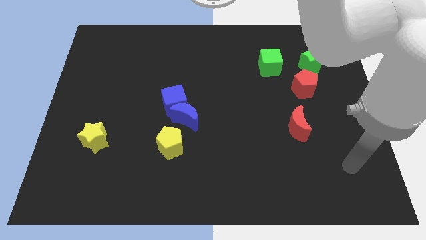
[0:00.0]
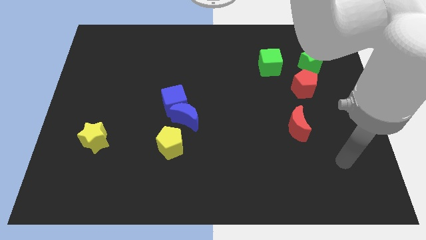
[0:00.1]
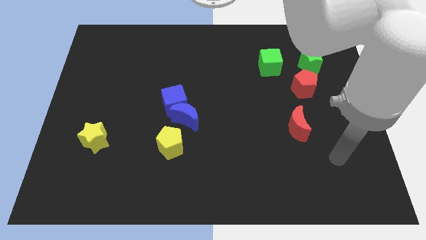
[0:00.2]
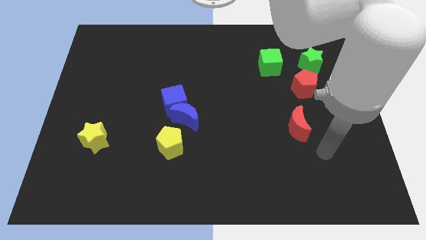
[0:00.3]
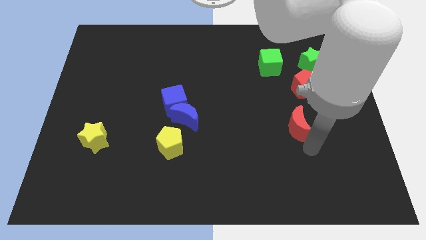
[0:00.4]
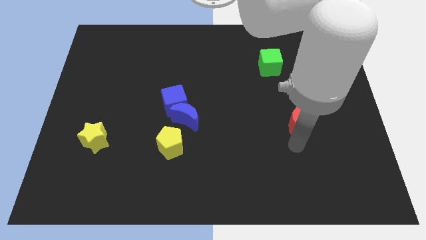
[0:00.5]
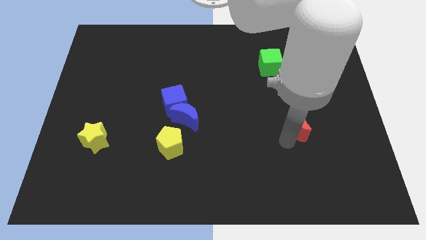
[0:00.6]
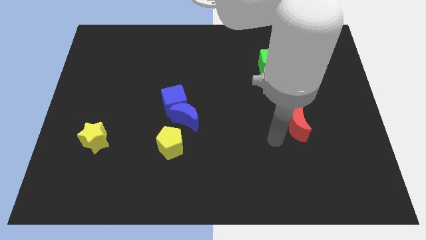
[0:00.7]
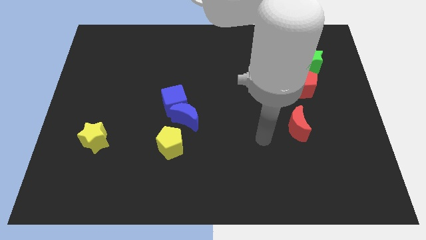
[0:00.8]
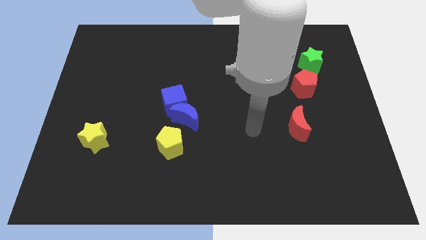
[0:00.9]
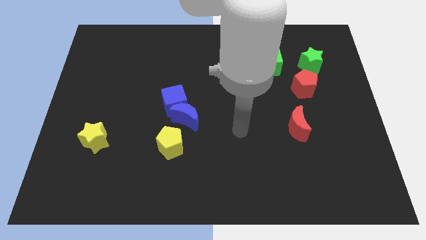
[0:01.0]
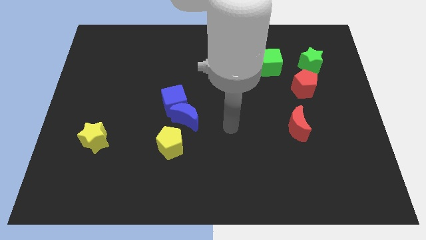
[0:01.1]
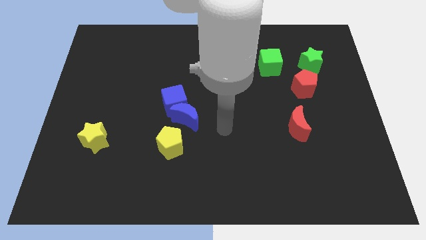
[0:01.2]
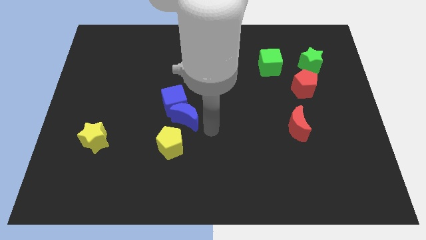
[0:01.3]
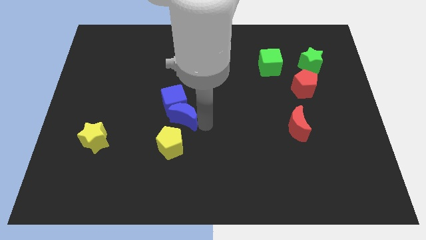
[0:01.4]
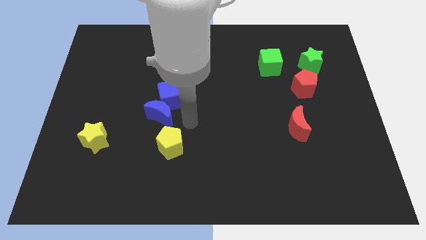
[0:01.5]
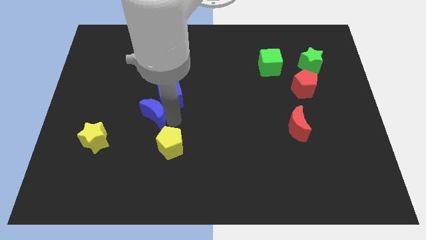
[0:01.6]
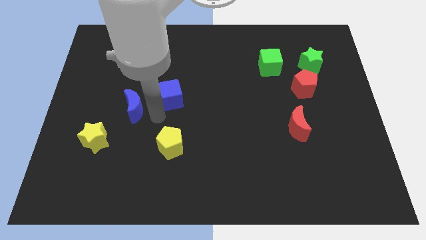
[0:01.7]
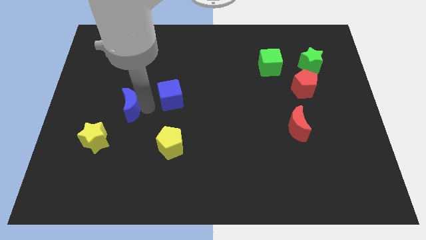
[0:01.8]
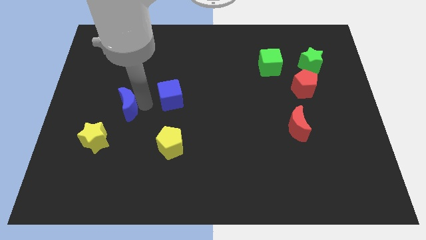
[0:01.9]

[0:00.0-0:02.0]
separate the blue cube from the blue moon

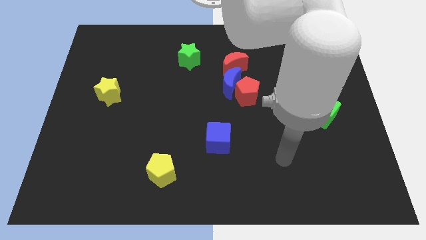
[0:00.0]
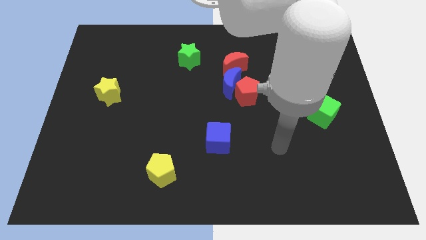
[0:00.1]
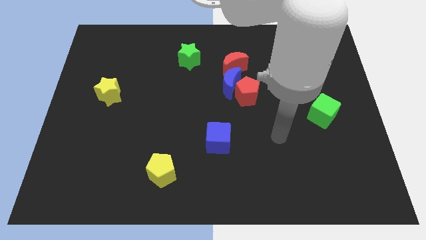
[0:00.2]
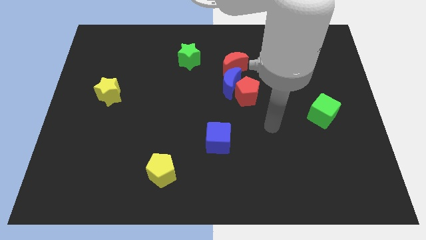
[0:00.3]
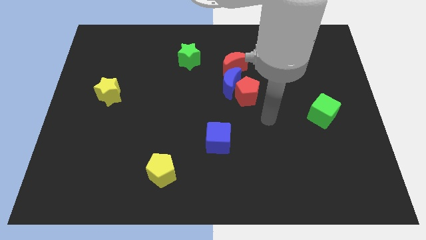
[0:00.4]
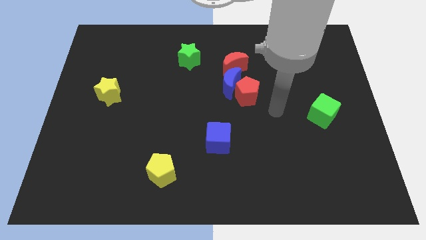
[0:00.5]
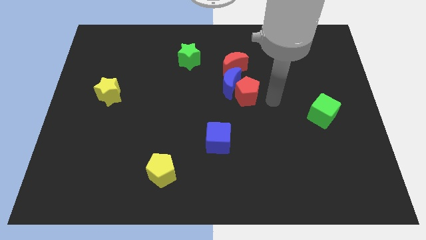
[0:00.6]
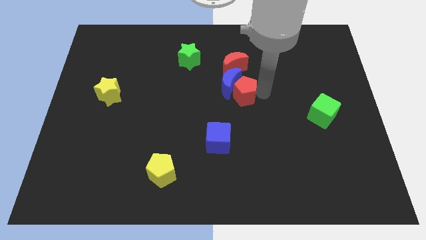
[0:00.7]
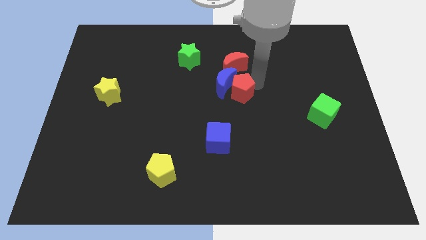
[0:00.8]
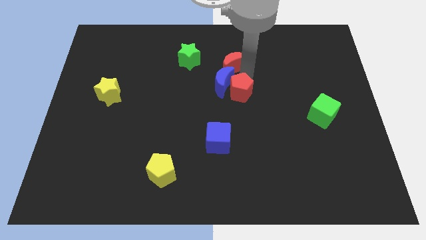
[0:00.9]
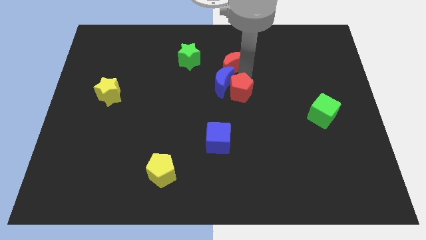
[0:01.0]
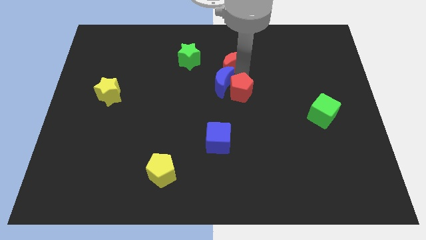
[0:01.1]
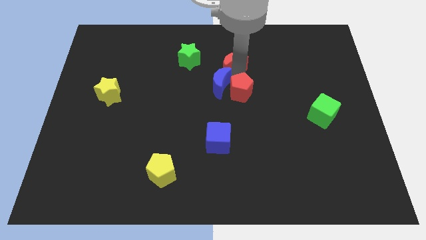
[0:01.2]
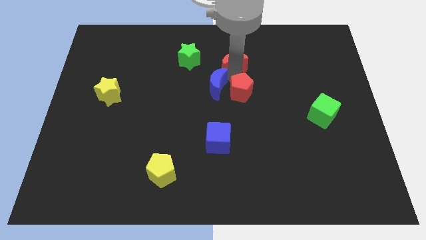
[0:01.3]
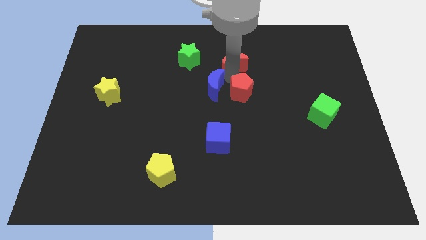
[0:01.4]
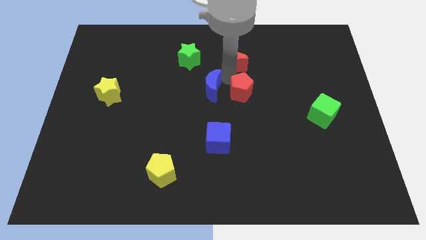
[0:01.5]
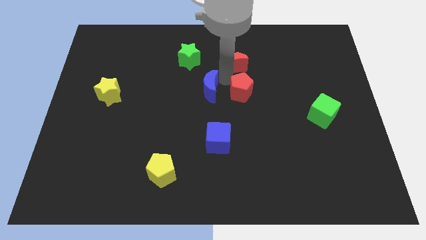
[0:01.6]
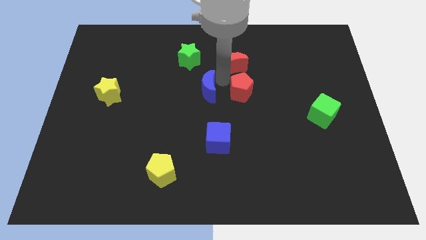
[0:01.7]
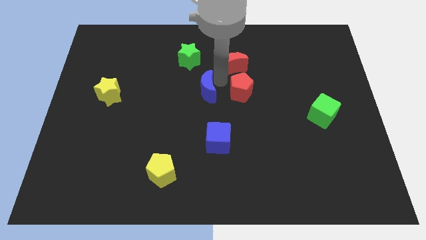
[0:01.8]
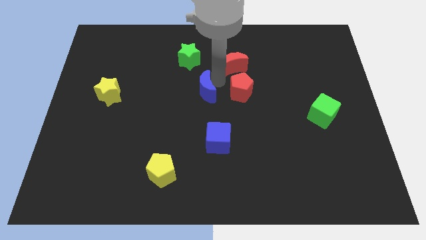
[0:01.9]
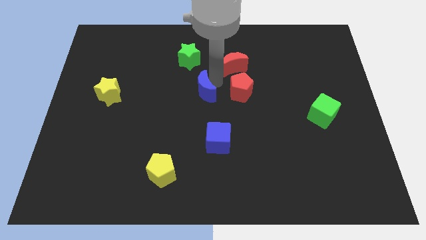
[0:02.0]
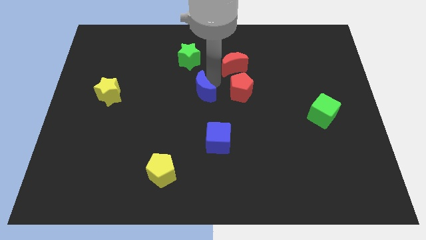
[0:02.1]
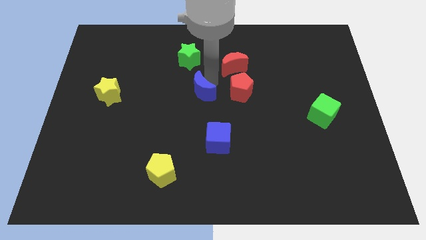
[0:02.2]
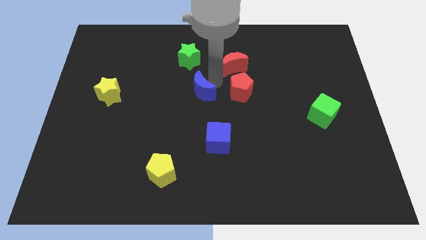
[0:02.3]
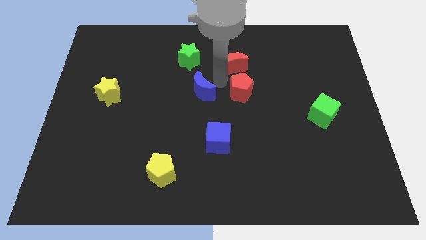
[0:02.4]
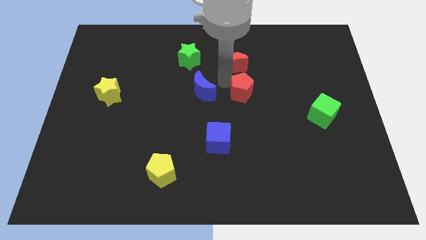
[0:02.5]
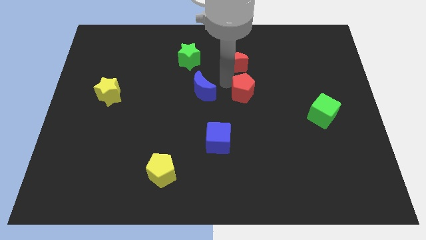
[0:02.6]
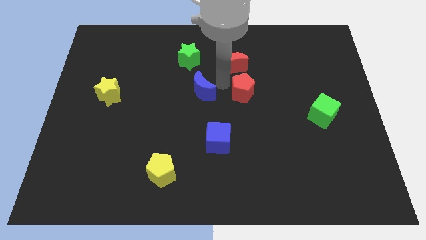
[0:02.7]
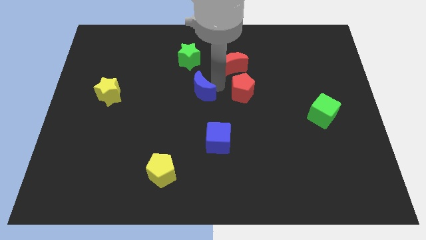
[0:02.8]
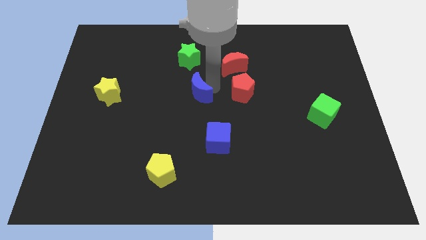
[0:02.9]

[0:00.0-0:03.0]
move the blue moon away from the red pentagon and red moon

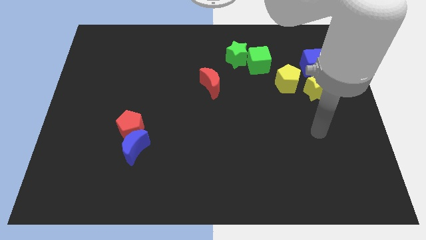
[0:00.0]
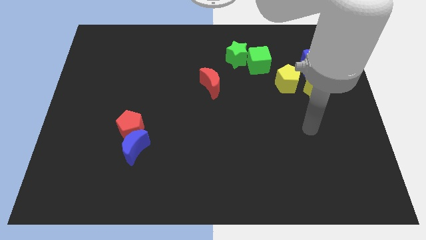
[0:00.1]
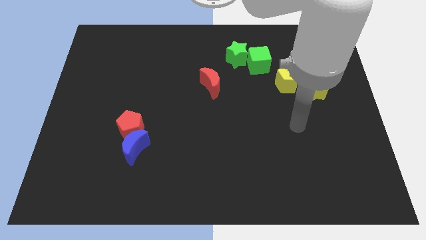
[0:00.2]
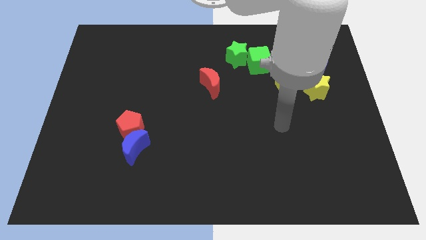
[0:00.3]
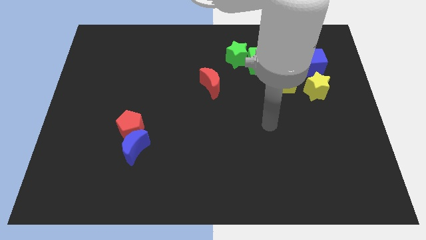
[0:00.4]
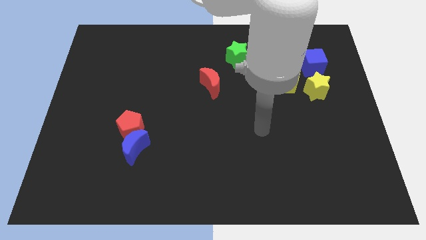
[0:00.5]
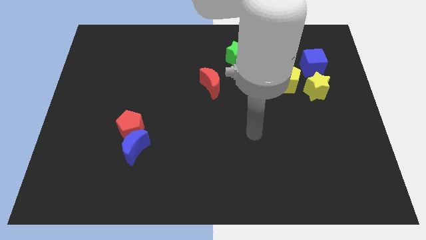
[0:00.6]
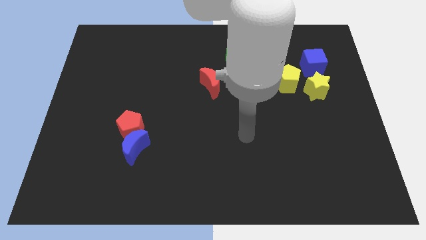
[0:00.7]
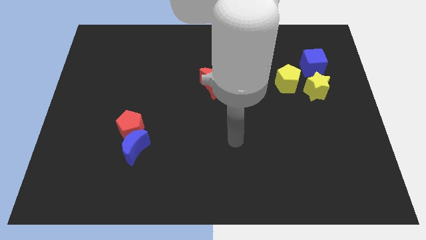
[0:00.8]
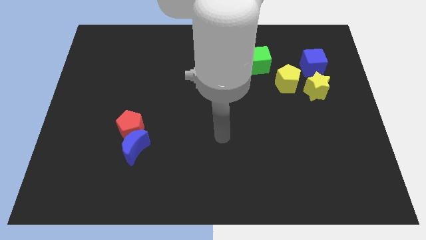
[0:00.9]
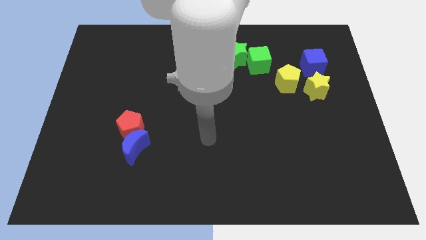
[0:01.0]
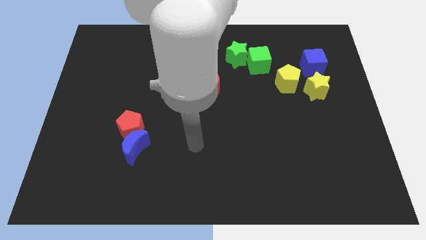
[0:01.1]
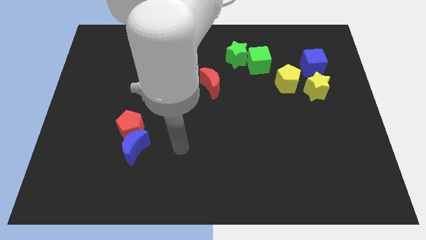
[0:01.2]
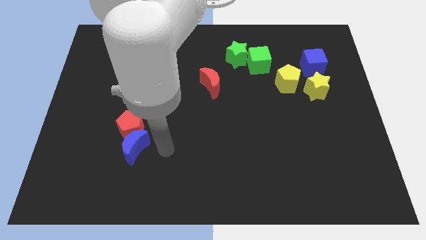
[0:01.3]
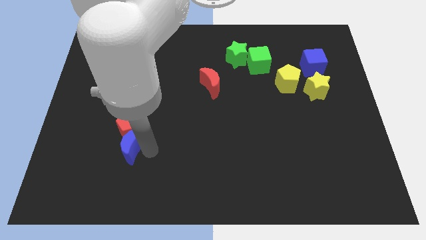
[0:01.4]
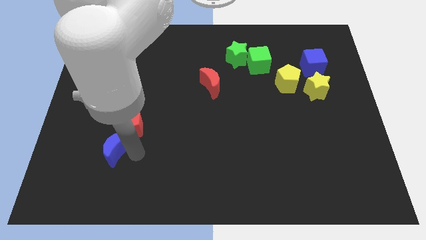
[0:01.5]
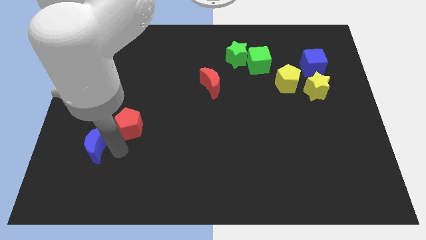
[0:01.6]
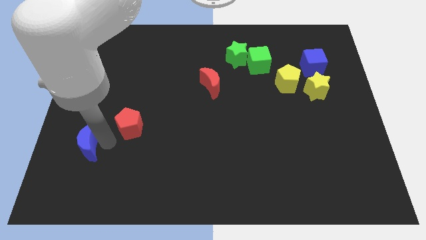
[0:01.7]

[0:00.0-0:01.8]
move the red pentagon away from the blue moon

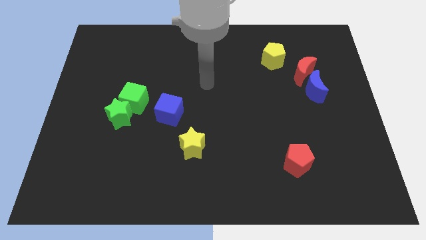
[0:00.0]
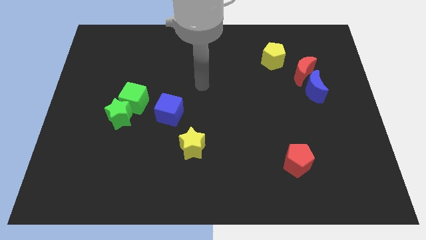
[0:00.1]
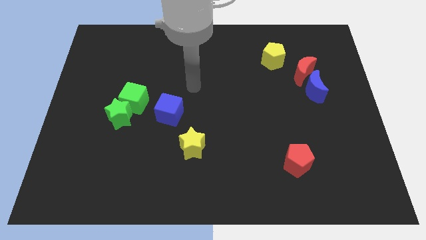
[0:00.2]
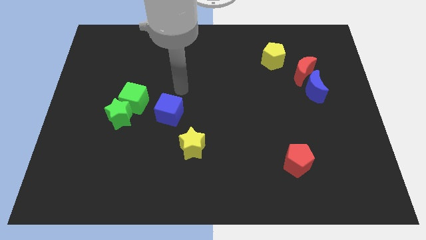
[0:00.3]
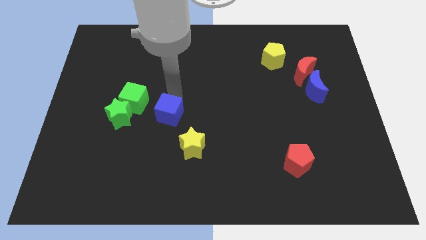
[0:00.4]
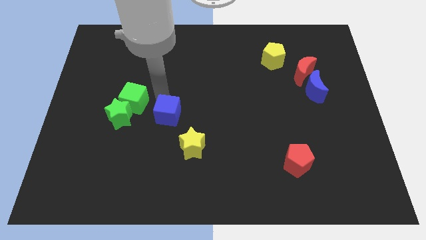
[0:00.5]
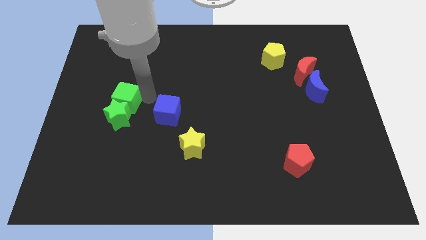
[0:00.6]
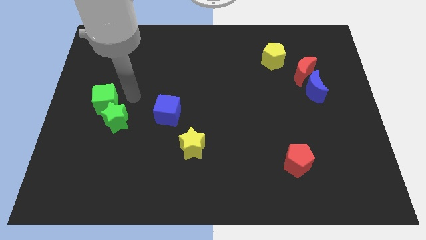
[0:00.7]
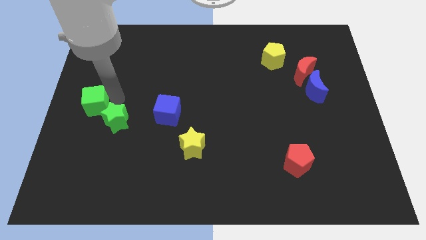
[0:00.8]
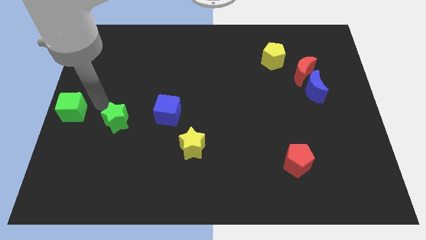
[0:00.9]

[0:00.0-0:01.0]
pull the green star apart from the green cube

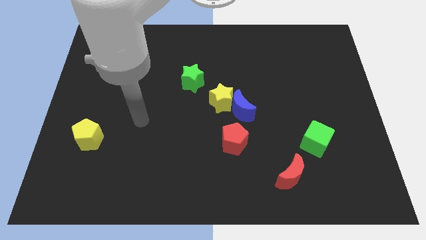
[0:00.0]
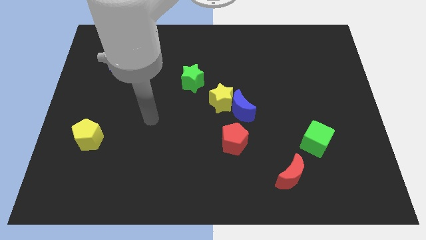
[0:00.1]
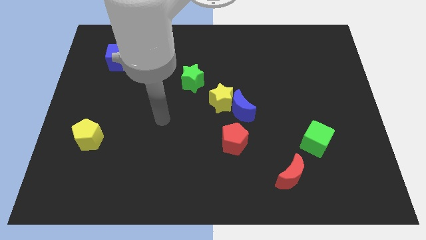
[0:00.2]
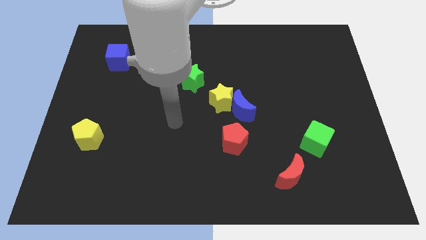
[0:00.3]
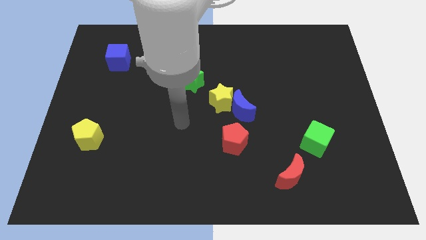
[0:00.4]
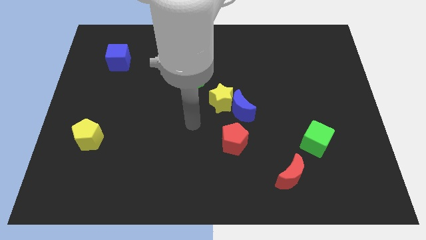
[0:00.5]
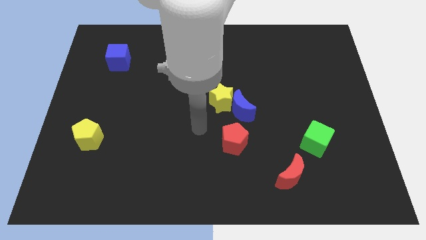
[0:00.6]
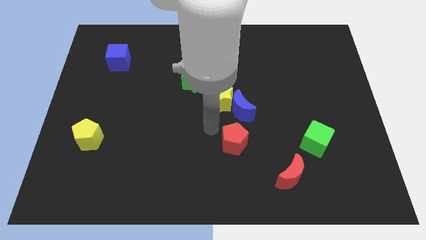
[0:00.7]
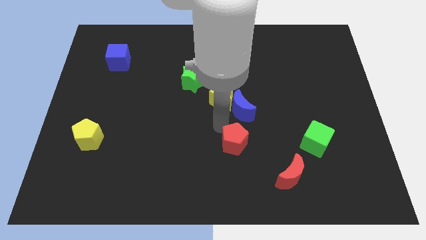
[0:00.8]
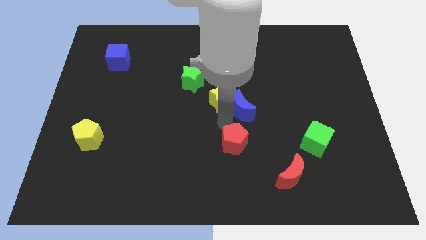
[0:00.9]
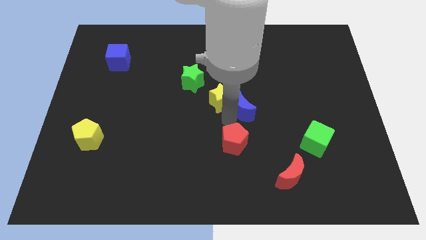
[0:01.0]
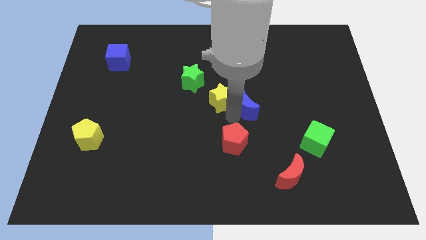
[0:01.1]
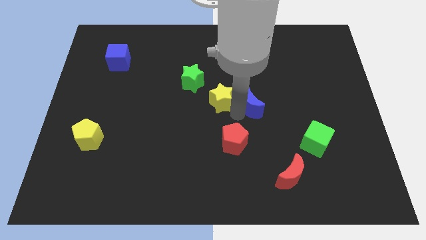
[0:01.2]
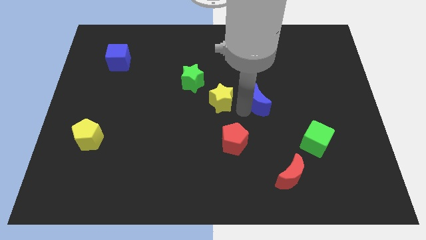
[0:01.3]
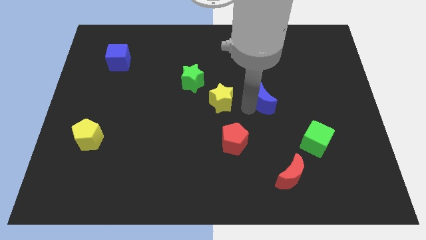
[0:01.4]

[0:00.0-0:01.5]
move the blue moon away from the yellow star and red pentagon

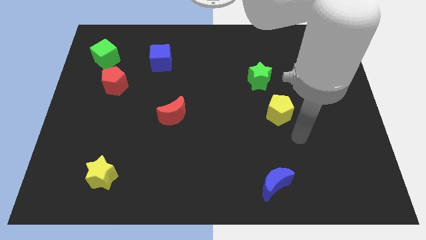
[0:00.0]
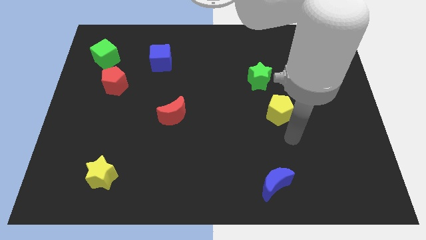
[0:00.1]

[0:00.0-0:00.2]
pull the red pentagon apart from the green cube
